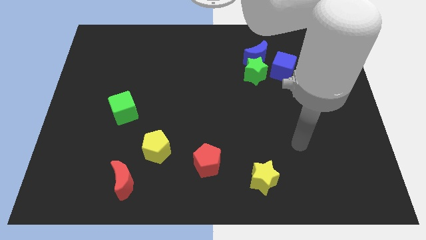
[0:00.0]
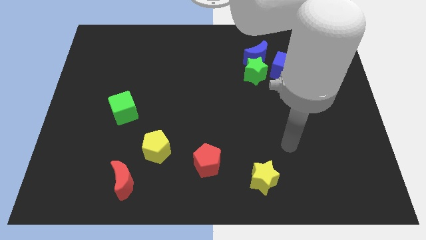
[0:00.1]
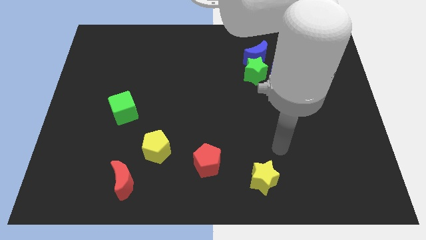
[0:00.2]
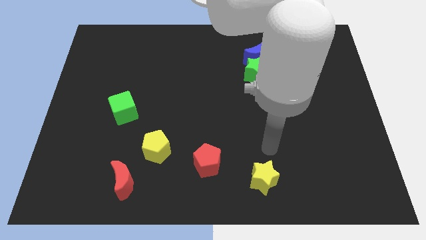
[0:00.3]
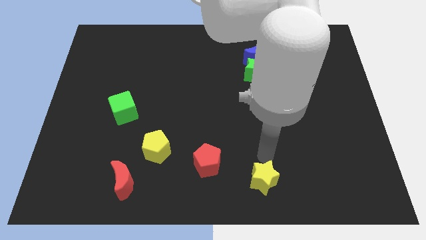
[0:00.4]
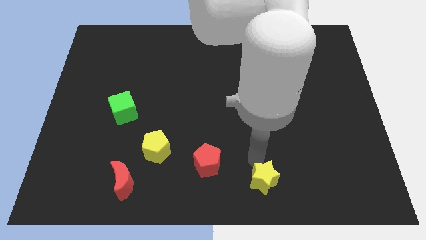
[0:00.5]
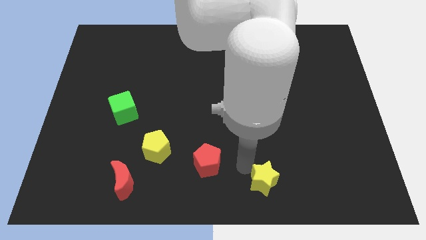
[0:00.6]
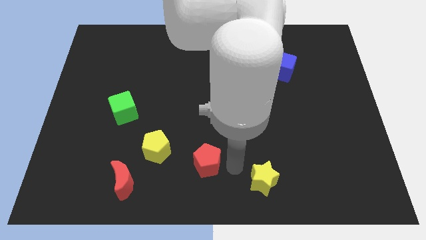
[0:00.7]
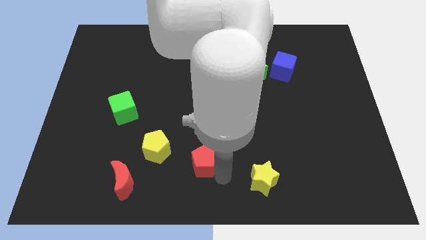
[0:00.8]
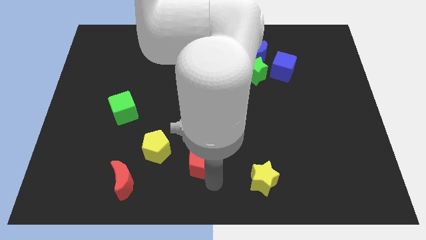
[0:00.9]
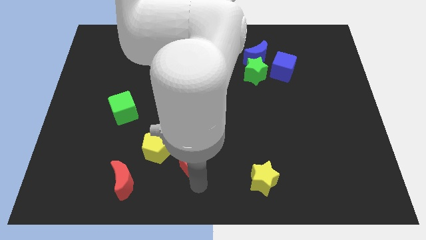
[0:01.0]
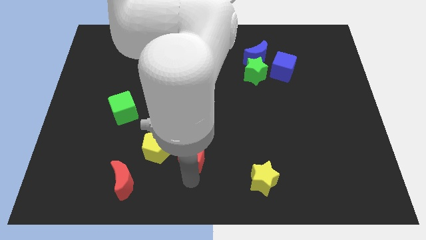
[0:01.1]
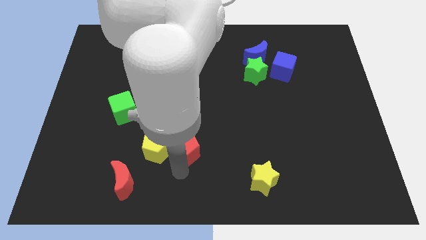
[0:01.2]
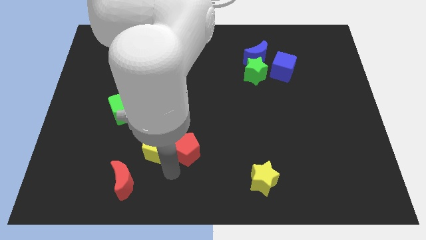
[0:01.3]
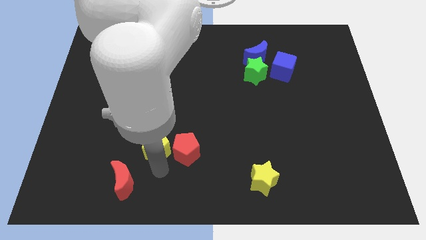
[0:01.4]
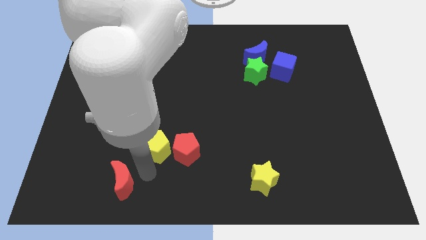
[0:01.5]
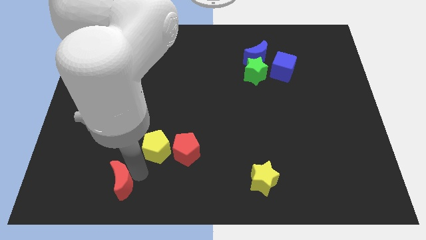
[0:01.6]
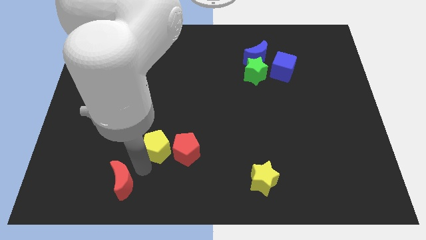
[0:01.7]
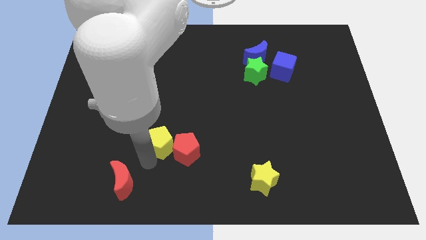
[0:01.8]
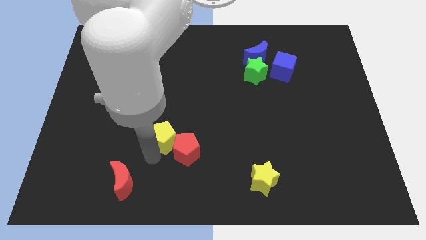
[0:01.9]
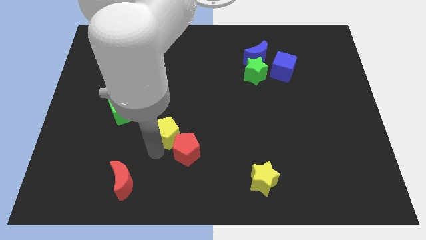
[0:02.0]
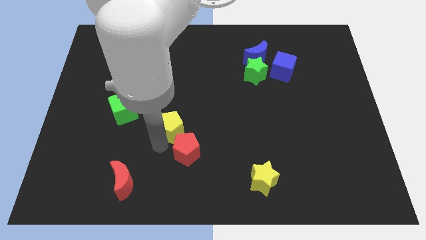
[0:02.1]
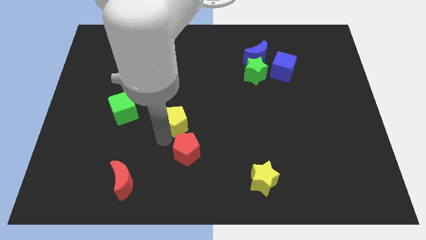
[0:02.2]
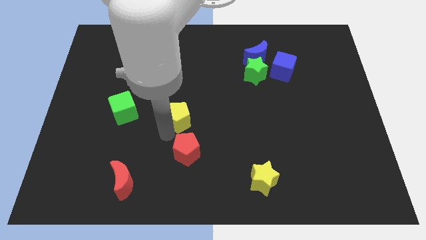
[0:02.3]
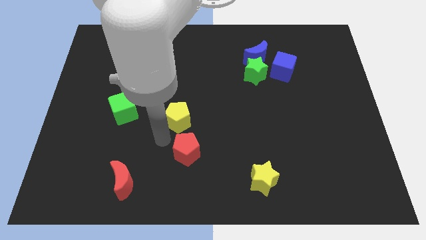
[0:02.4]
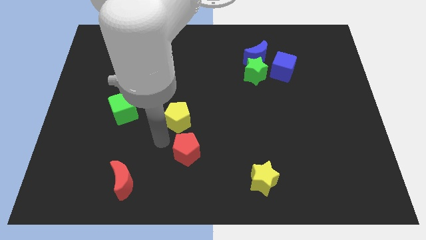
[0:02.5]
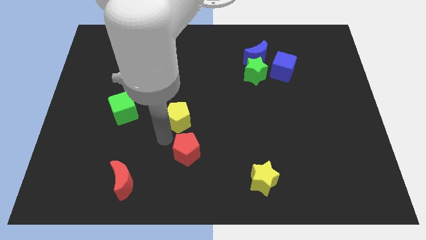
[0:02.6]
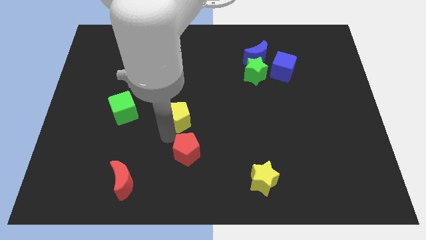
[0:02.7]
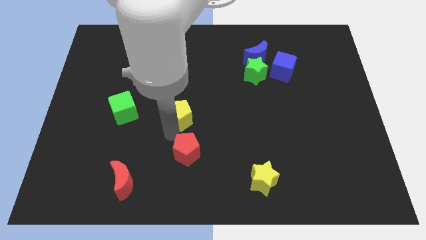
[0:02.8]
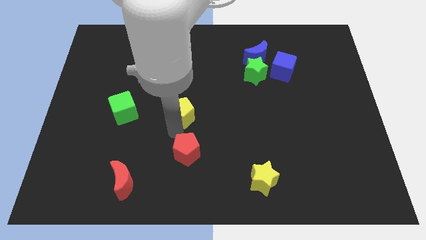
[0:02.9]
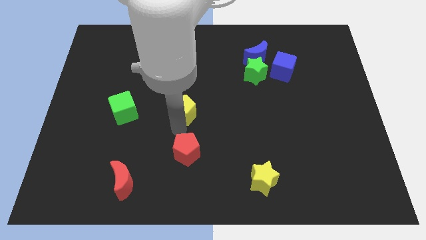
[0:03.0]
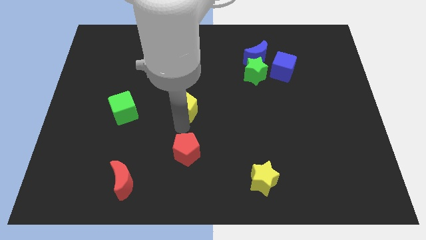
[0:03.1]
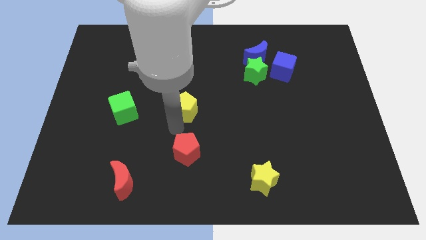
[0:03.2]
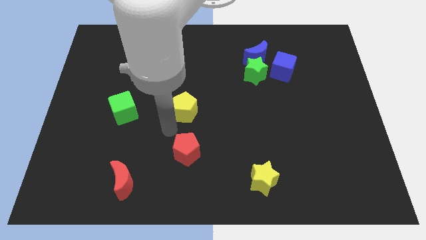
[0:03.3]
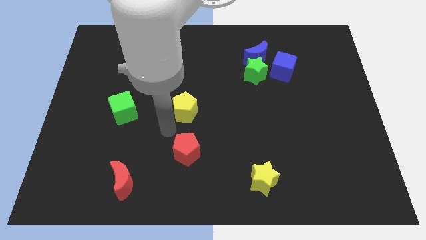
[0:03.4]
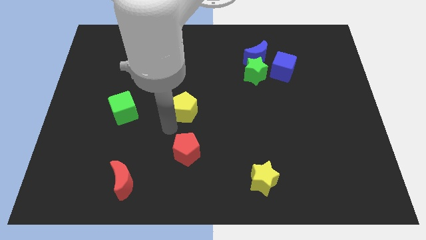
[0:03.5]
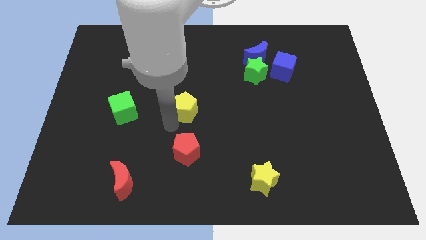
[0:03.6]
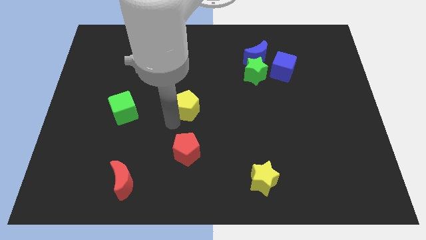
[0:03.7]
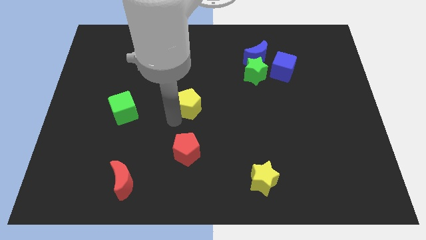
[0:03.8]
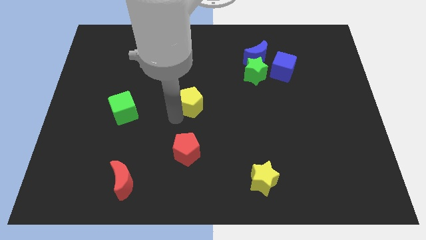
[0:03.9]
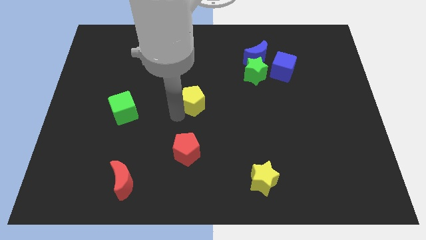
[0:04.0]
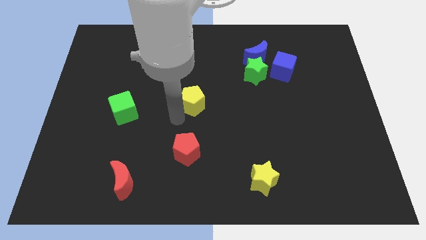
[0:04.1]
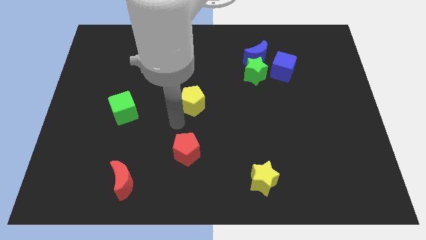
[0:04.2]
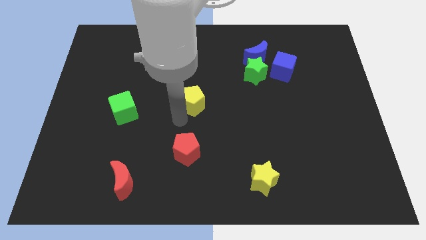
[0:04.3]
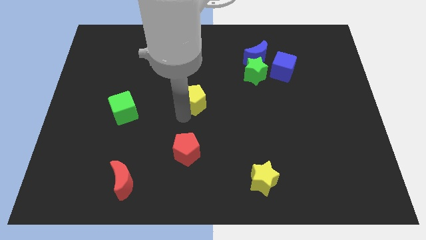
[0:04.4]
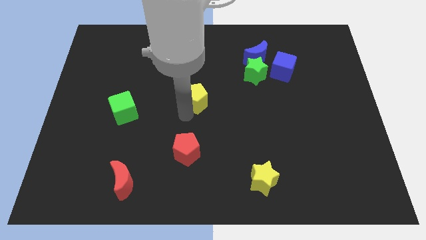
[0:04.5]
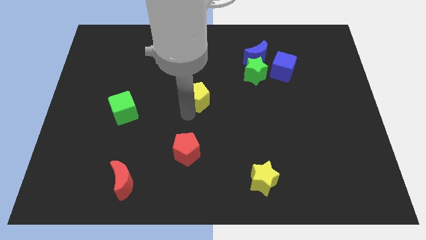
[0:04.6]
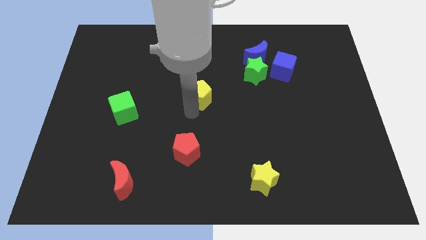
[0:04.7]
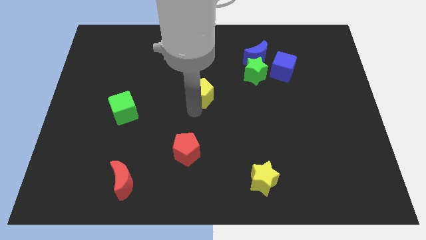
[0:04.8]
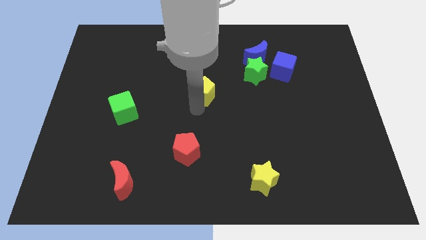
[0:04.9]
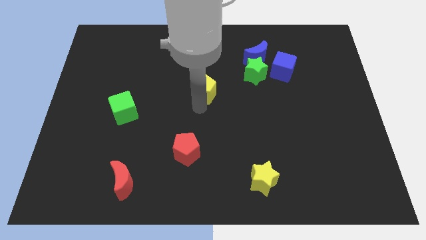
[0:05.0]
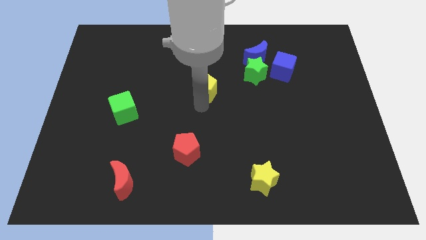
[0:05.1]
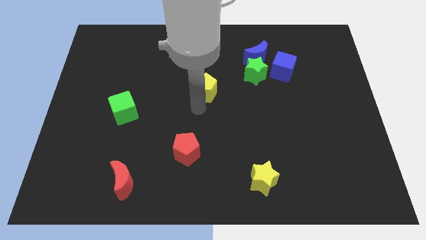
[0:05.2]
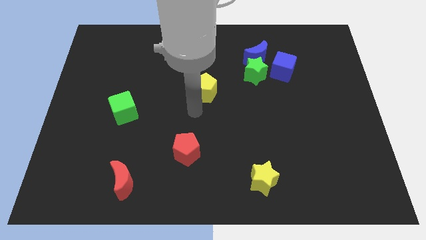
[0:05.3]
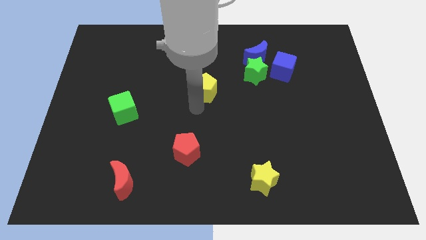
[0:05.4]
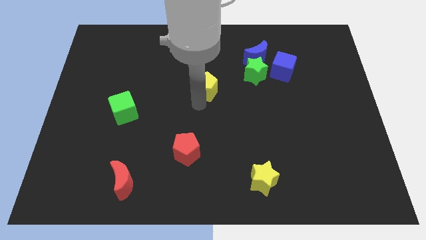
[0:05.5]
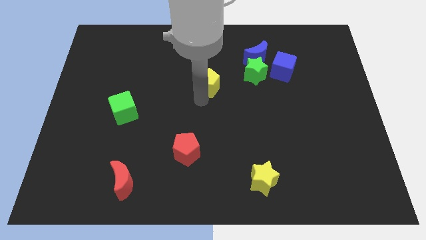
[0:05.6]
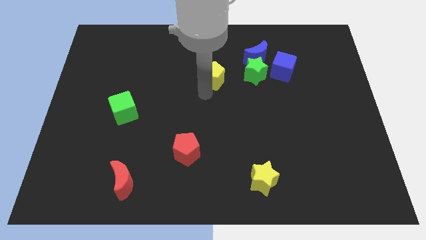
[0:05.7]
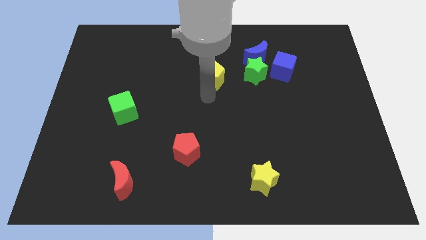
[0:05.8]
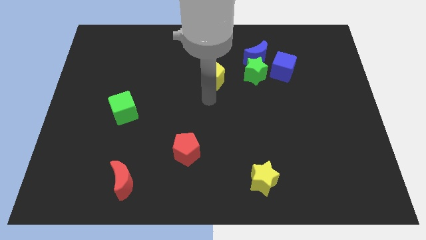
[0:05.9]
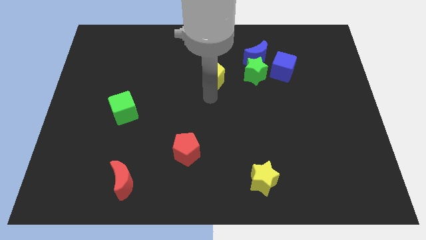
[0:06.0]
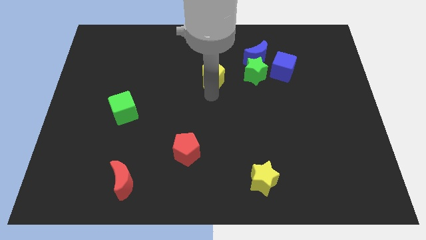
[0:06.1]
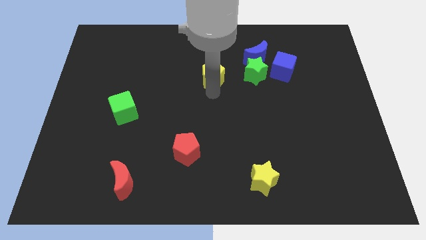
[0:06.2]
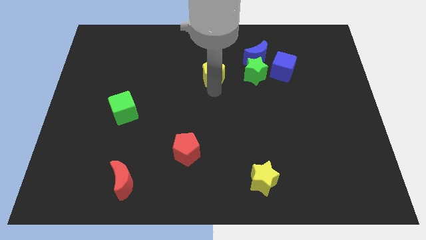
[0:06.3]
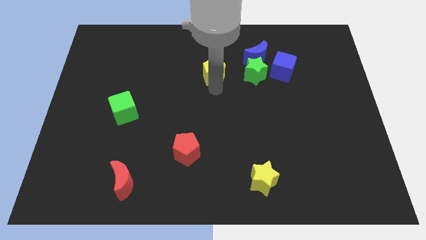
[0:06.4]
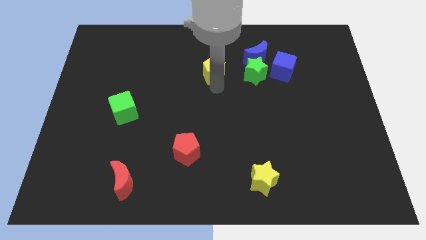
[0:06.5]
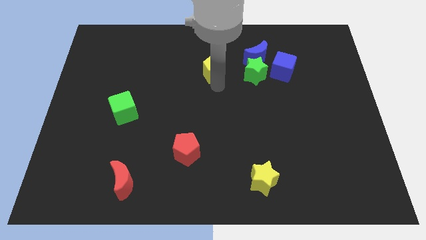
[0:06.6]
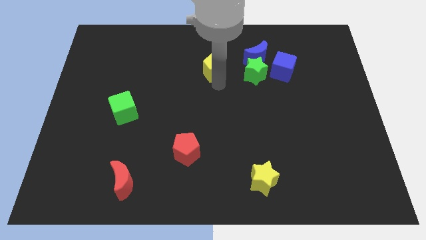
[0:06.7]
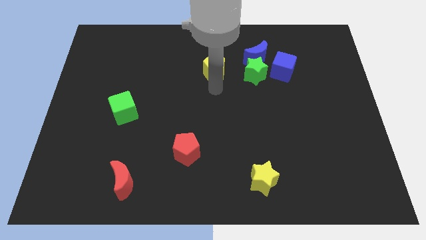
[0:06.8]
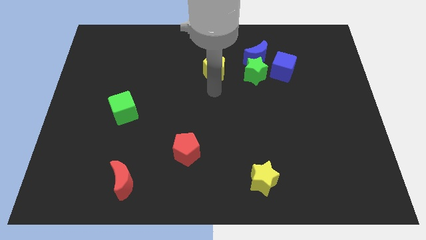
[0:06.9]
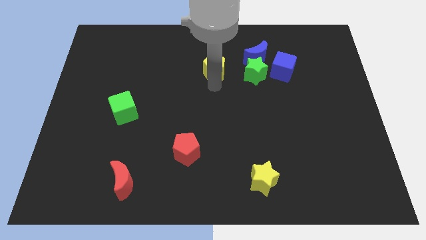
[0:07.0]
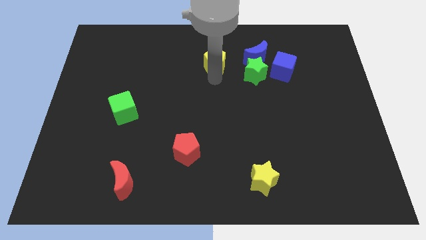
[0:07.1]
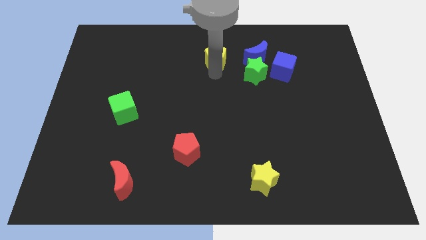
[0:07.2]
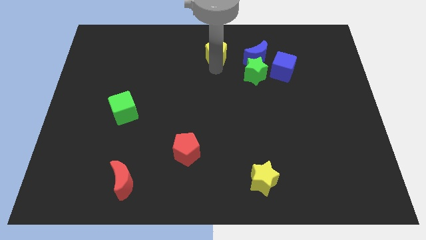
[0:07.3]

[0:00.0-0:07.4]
push the yellow pentagon to the top
